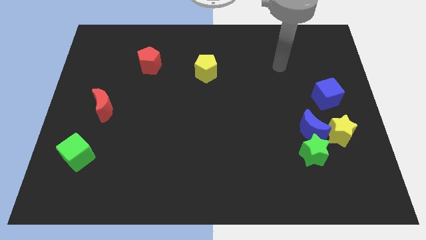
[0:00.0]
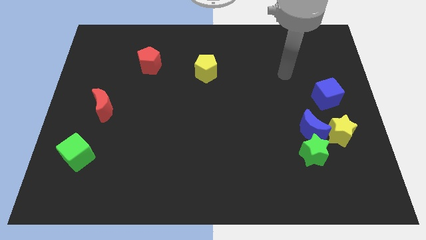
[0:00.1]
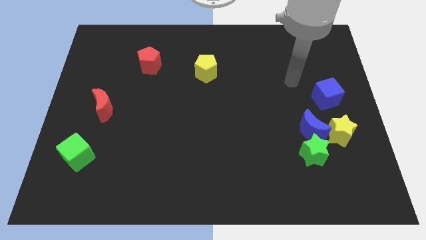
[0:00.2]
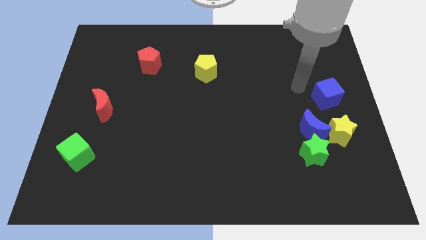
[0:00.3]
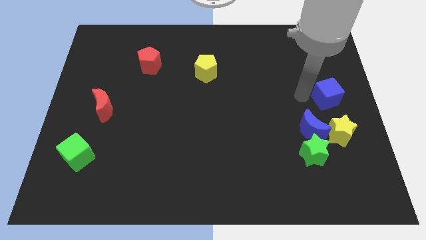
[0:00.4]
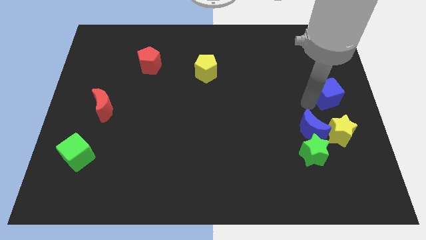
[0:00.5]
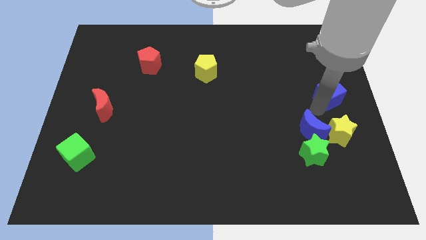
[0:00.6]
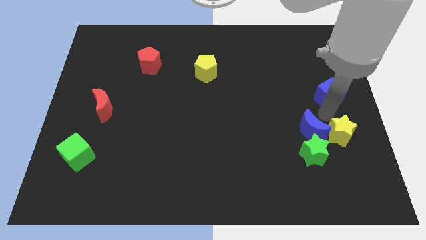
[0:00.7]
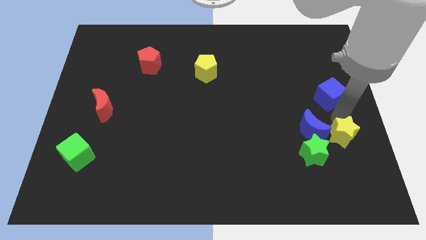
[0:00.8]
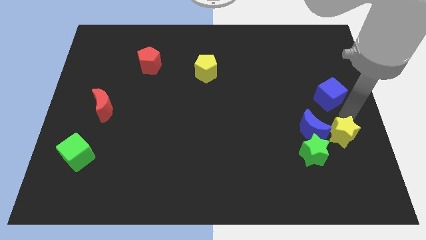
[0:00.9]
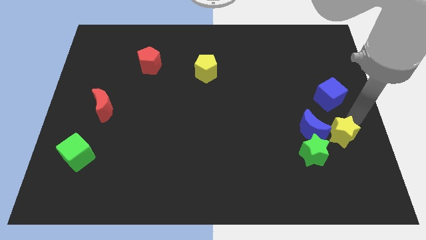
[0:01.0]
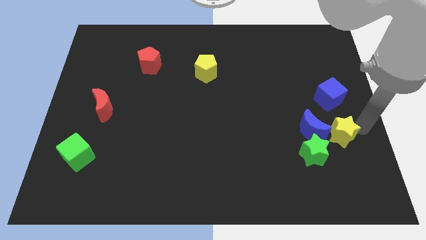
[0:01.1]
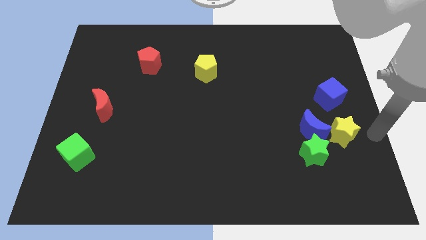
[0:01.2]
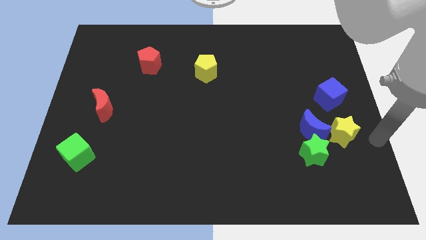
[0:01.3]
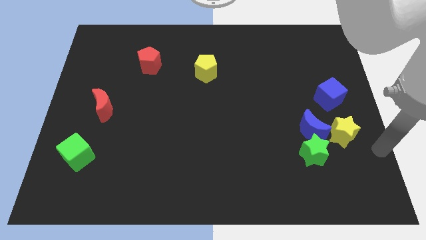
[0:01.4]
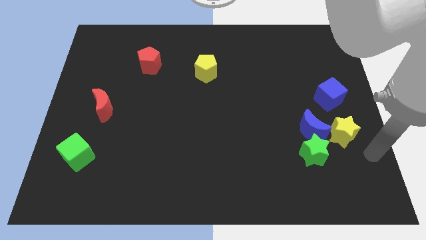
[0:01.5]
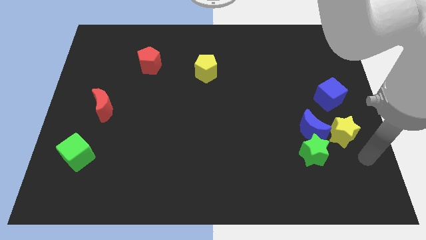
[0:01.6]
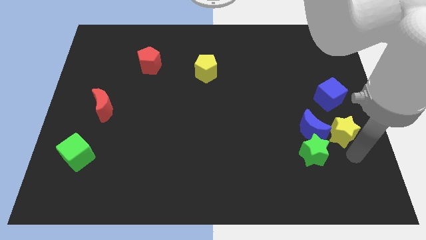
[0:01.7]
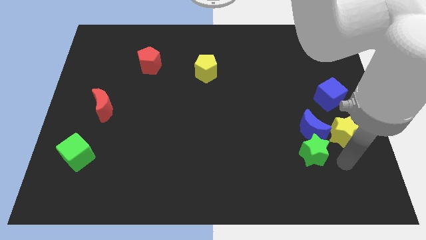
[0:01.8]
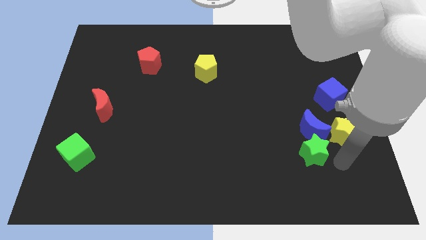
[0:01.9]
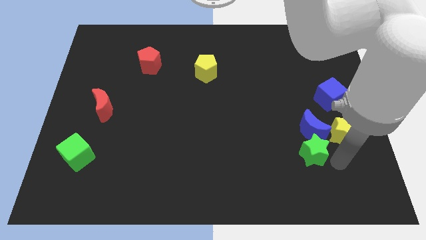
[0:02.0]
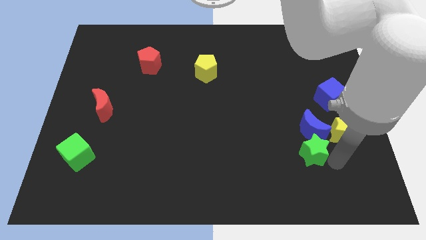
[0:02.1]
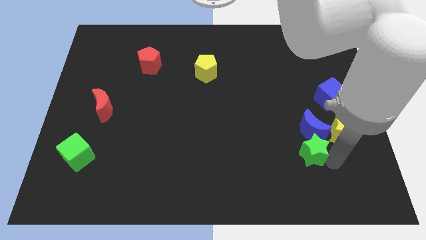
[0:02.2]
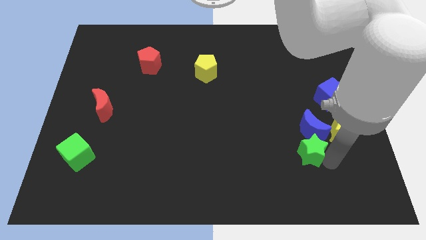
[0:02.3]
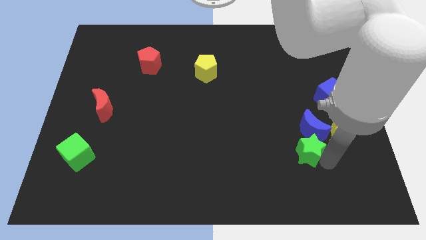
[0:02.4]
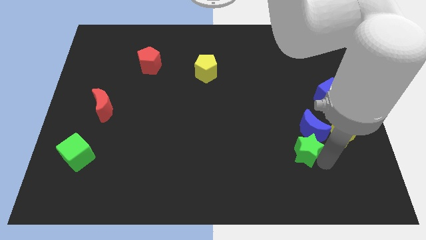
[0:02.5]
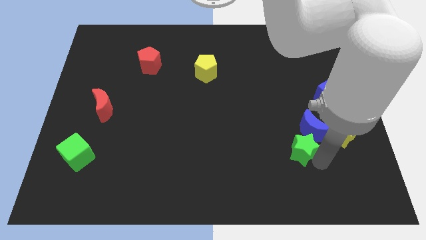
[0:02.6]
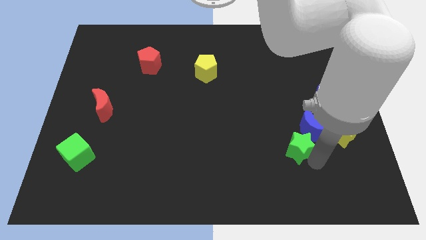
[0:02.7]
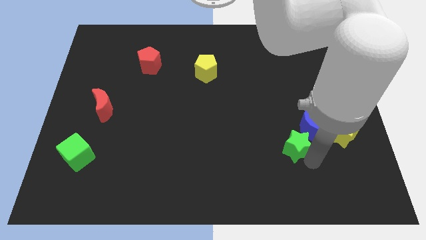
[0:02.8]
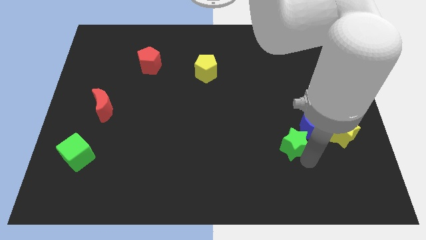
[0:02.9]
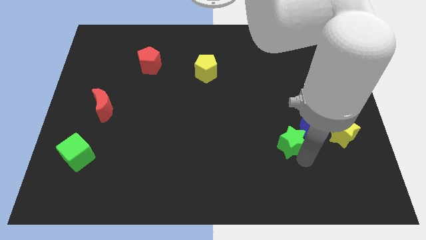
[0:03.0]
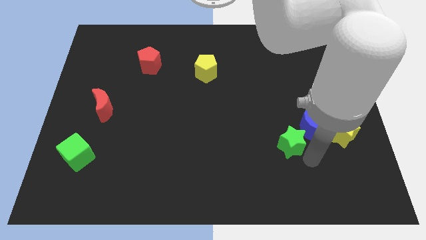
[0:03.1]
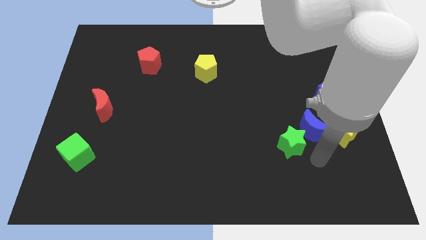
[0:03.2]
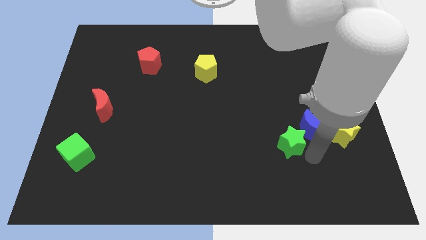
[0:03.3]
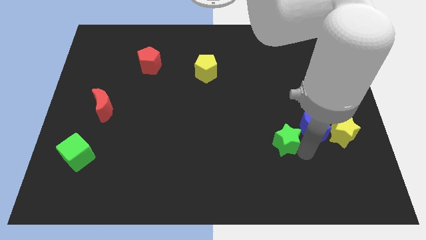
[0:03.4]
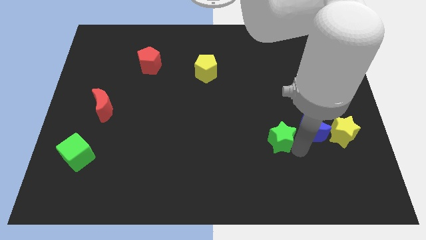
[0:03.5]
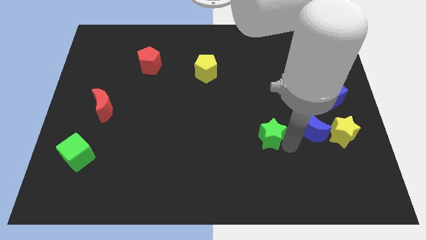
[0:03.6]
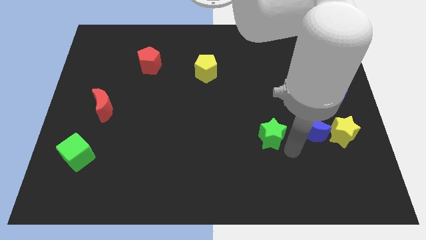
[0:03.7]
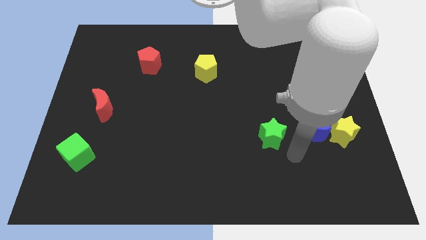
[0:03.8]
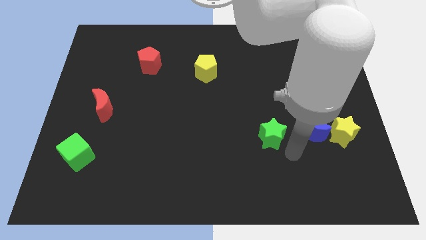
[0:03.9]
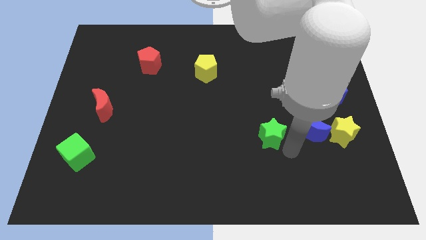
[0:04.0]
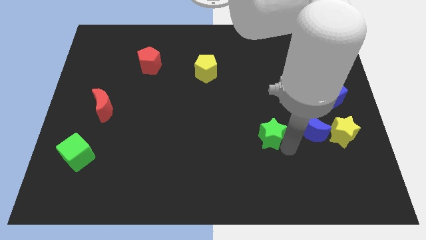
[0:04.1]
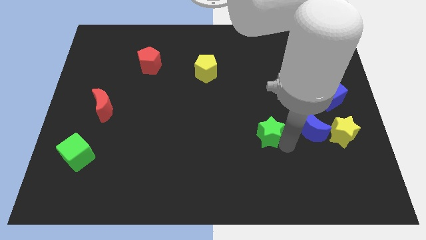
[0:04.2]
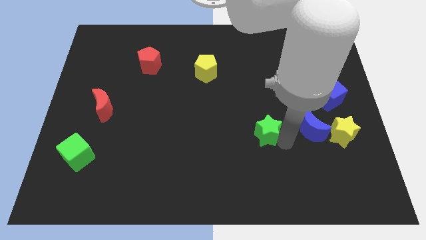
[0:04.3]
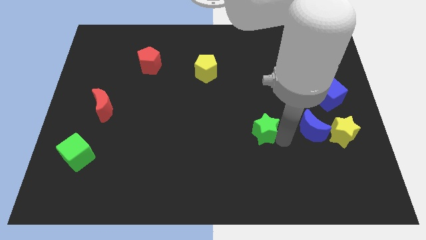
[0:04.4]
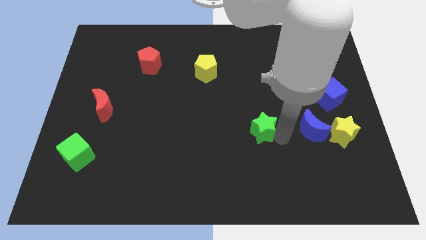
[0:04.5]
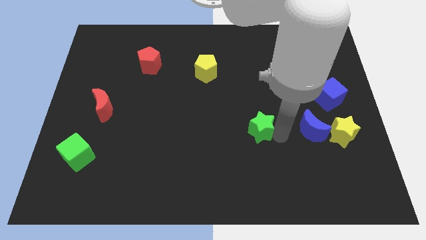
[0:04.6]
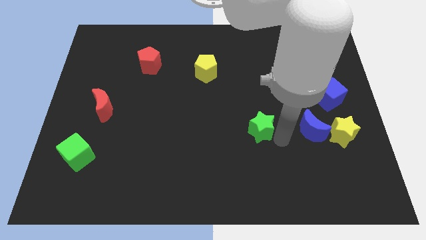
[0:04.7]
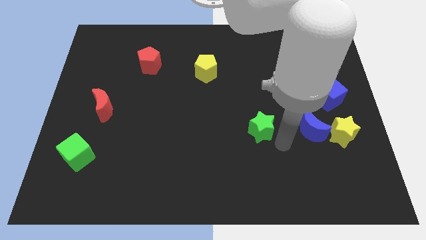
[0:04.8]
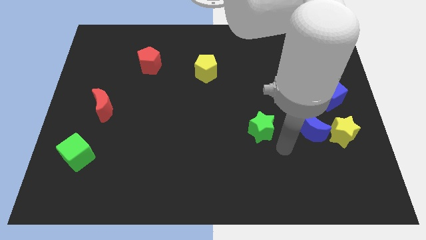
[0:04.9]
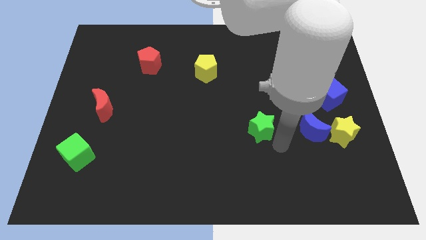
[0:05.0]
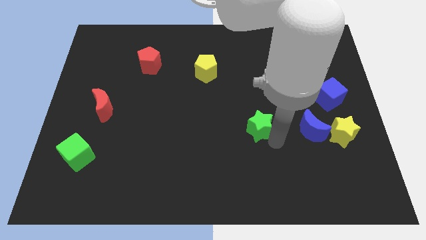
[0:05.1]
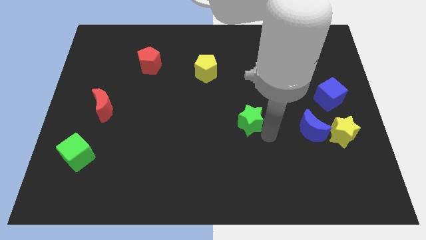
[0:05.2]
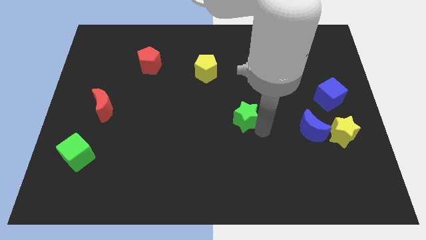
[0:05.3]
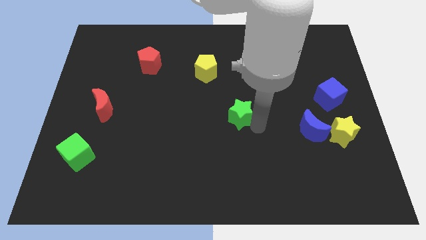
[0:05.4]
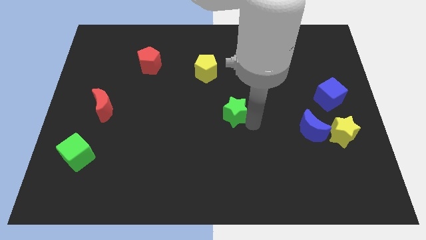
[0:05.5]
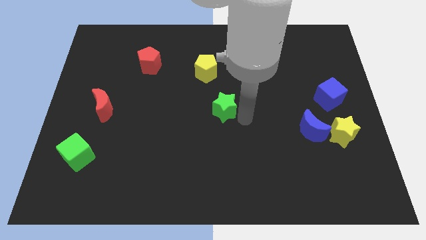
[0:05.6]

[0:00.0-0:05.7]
move the green star below the yellow pentagon

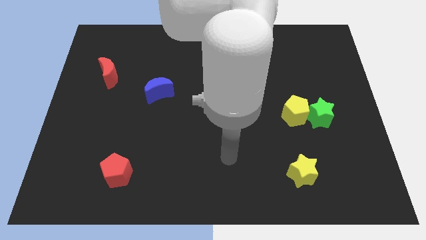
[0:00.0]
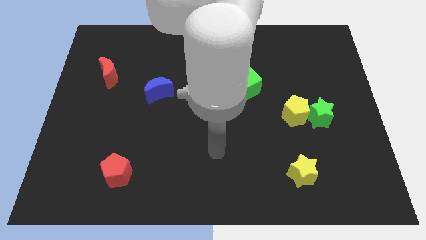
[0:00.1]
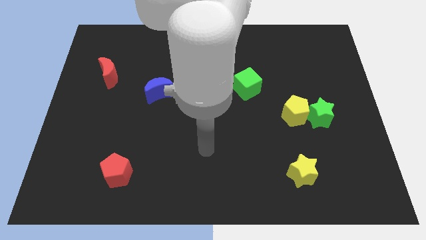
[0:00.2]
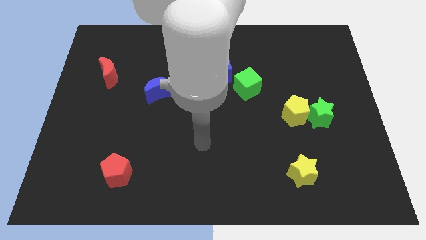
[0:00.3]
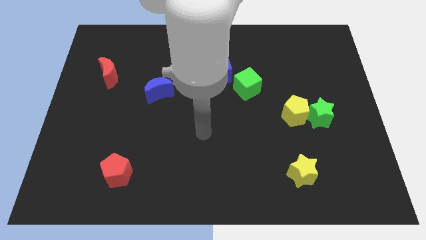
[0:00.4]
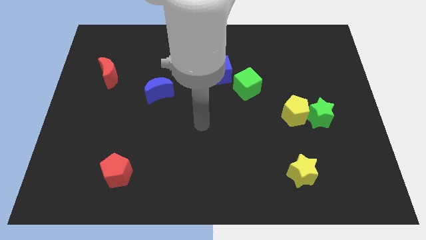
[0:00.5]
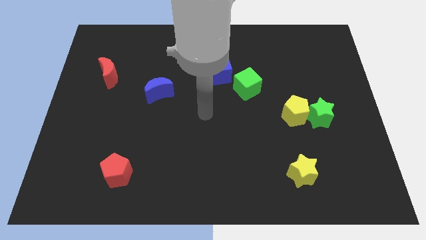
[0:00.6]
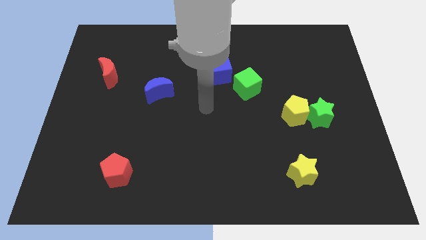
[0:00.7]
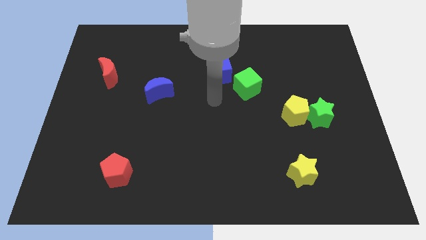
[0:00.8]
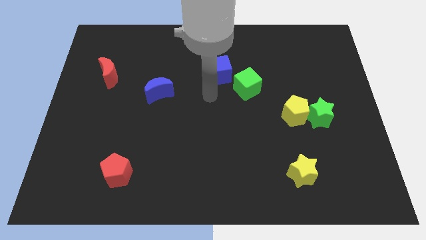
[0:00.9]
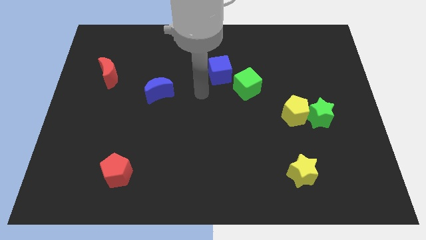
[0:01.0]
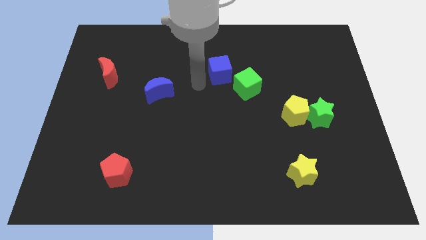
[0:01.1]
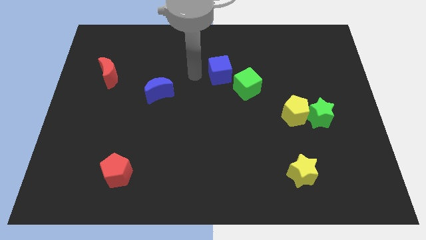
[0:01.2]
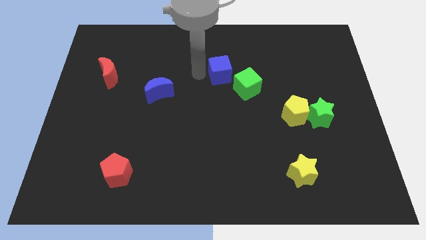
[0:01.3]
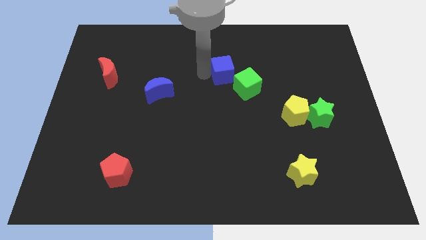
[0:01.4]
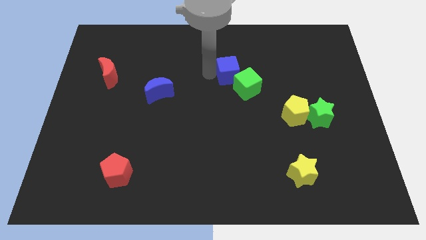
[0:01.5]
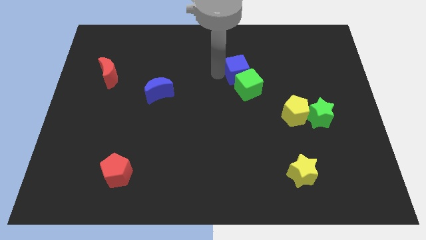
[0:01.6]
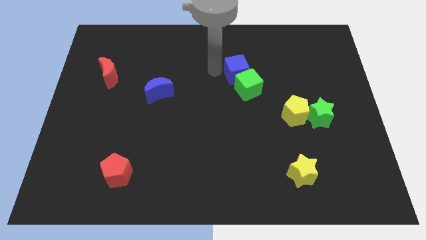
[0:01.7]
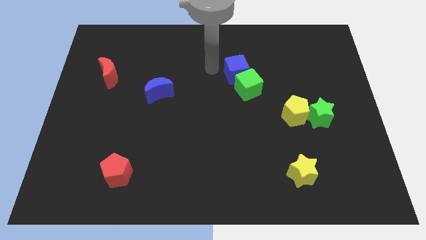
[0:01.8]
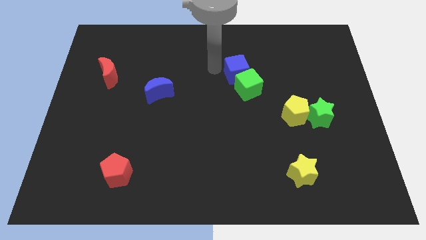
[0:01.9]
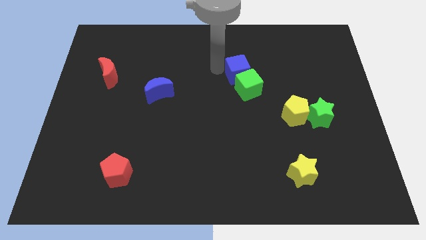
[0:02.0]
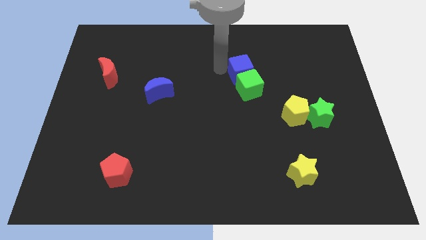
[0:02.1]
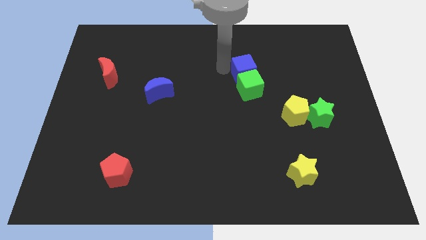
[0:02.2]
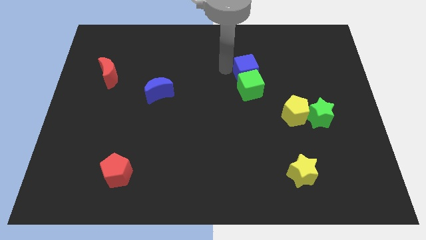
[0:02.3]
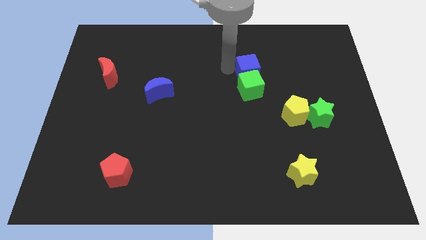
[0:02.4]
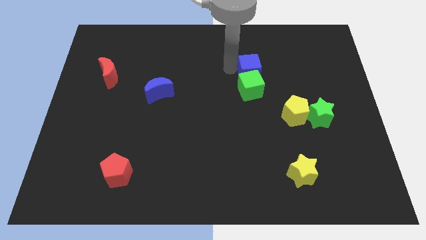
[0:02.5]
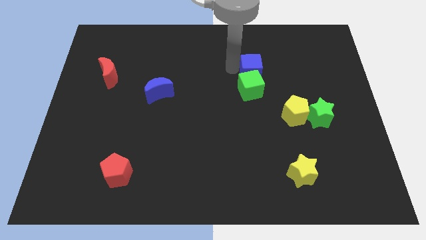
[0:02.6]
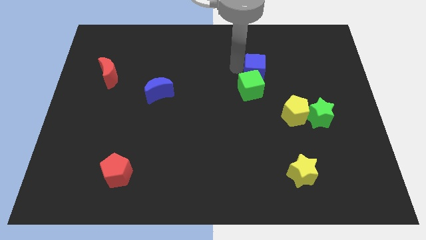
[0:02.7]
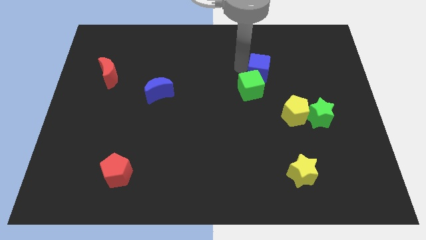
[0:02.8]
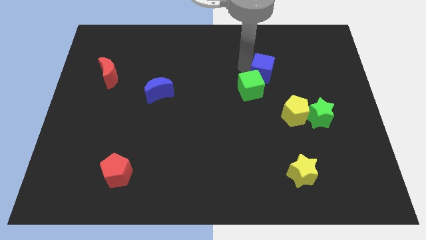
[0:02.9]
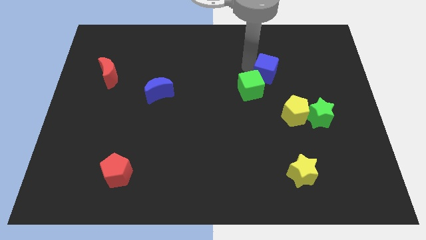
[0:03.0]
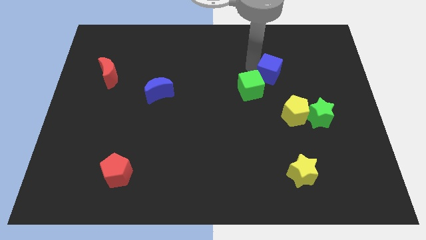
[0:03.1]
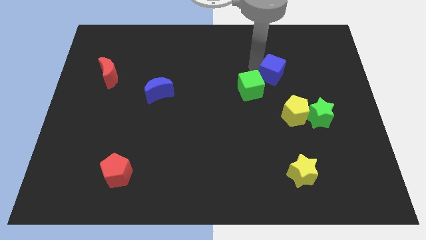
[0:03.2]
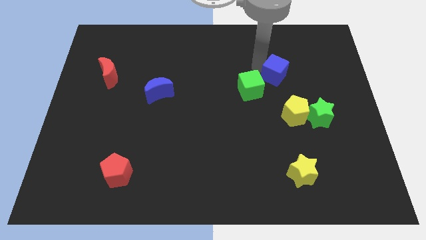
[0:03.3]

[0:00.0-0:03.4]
push the blue cube just right of the green cube
